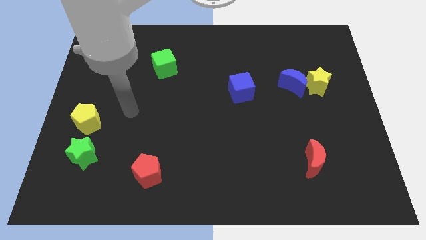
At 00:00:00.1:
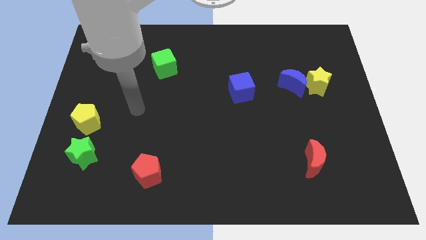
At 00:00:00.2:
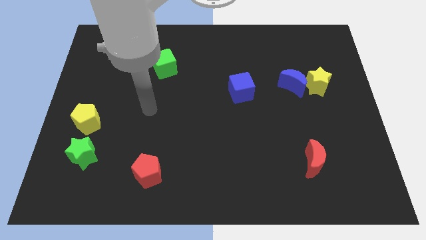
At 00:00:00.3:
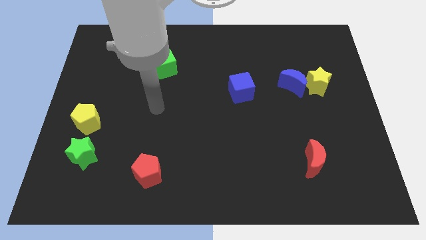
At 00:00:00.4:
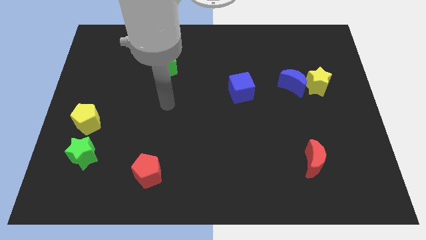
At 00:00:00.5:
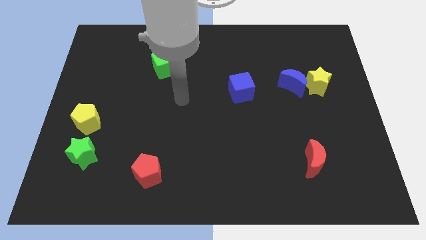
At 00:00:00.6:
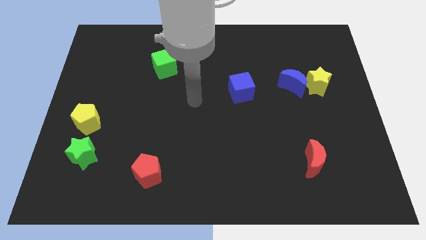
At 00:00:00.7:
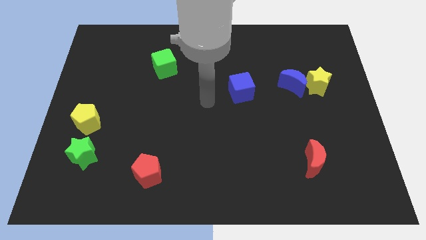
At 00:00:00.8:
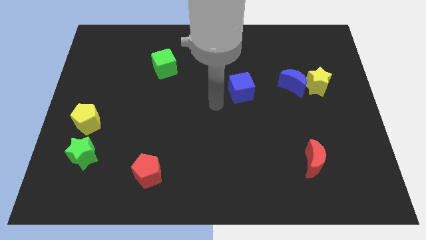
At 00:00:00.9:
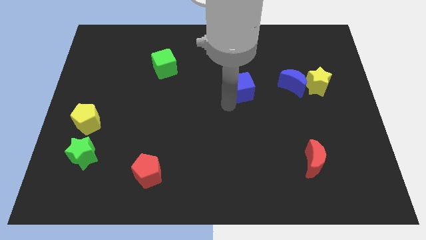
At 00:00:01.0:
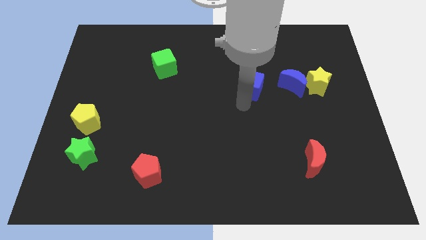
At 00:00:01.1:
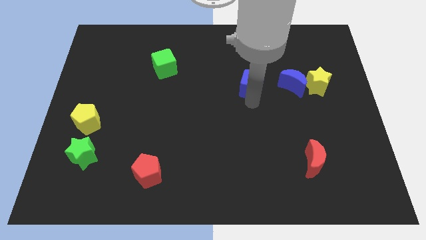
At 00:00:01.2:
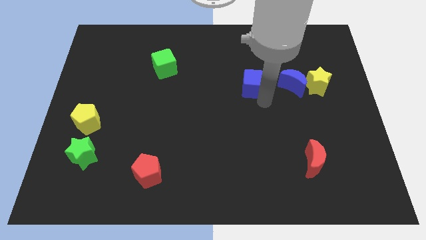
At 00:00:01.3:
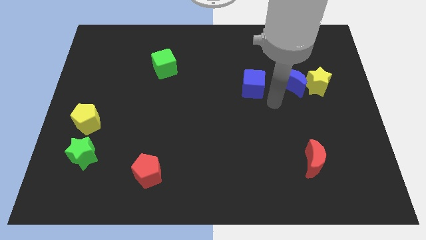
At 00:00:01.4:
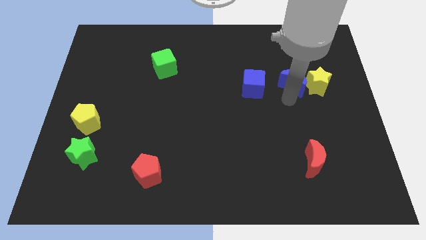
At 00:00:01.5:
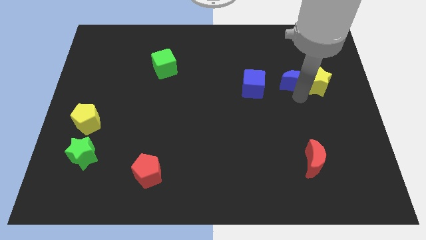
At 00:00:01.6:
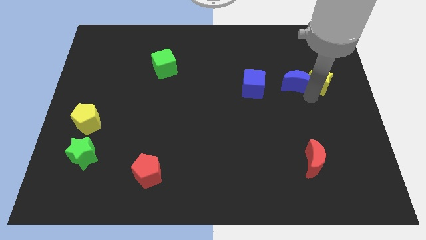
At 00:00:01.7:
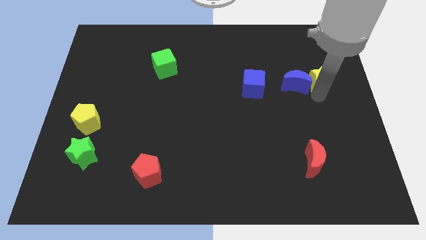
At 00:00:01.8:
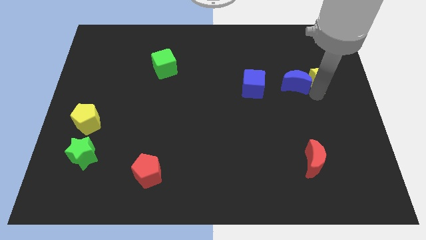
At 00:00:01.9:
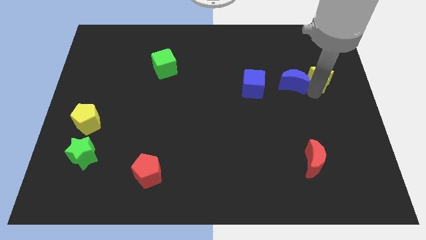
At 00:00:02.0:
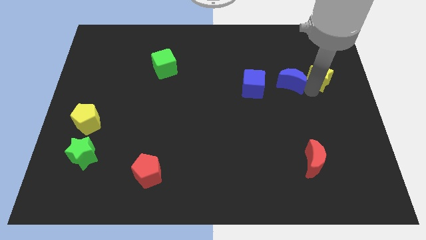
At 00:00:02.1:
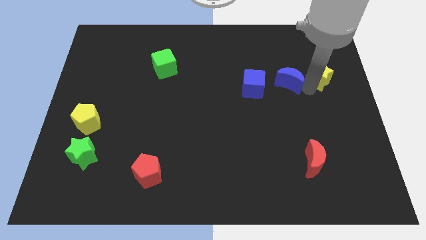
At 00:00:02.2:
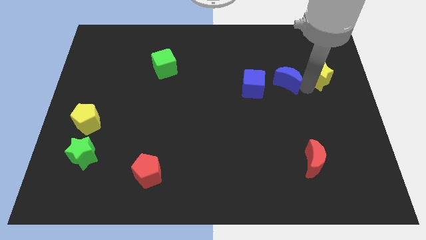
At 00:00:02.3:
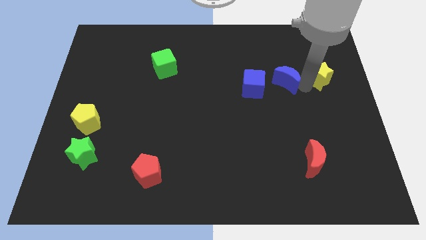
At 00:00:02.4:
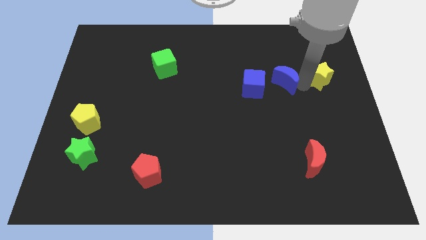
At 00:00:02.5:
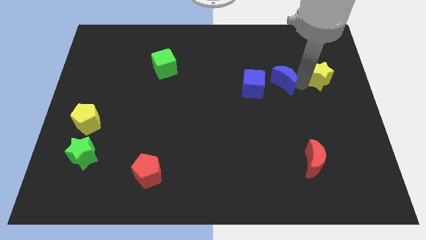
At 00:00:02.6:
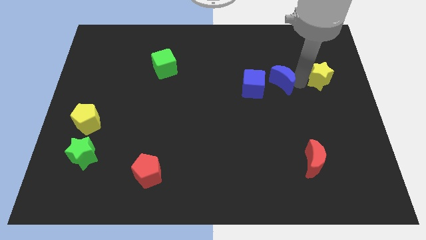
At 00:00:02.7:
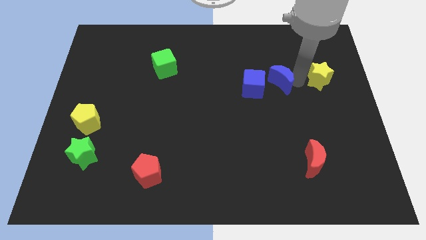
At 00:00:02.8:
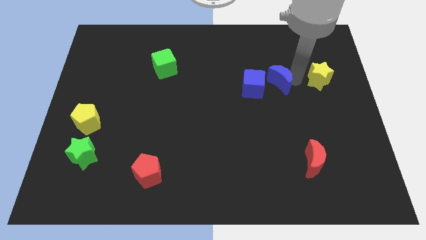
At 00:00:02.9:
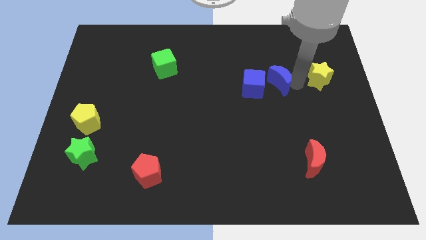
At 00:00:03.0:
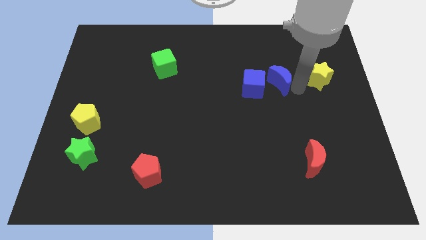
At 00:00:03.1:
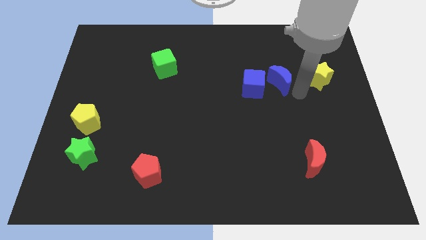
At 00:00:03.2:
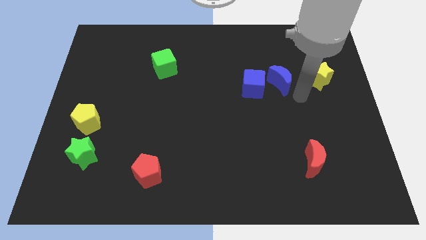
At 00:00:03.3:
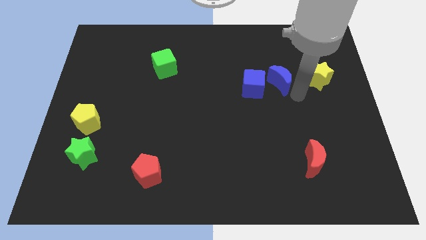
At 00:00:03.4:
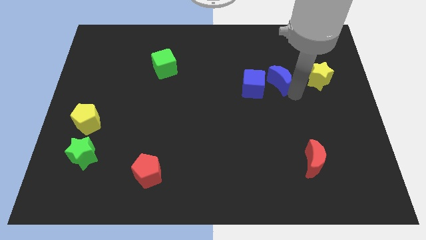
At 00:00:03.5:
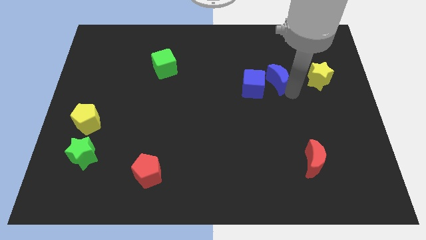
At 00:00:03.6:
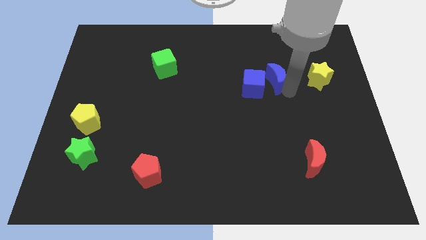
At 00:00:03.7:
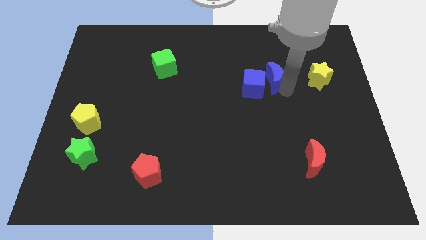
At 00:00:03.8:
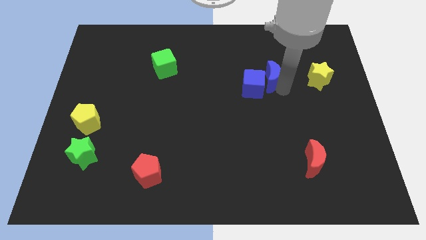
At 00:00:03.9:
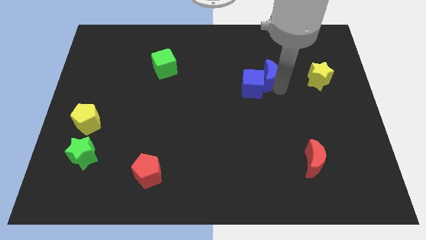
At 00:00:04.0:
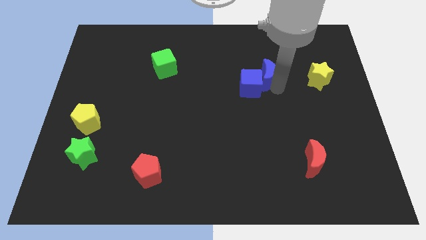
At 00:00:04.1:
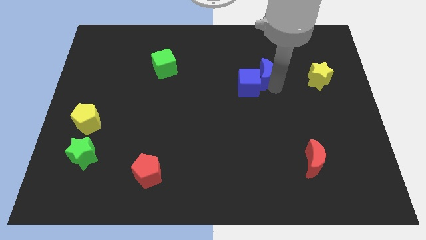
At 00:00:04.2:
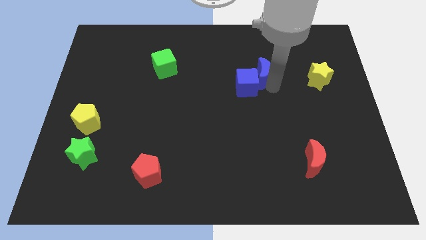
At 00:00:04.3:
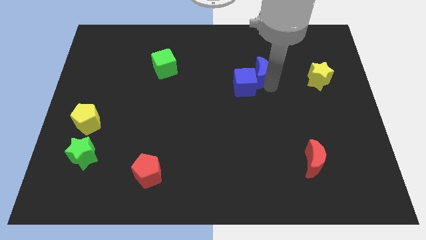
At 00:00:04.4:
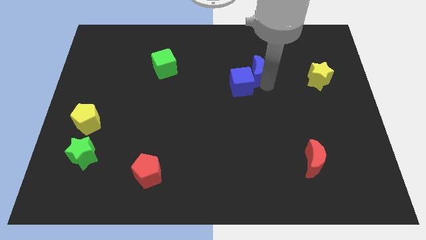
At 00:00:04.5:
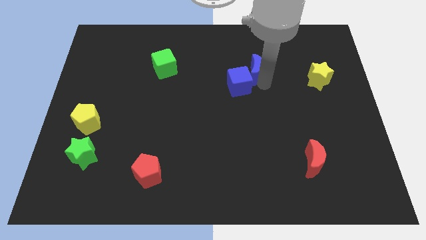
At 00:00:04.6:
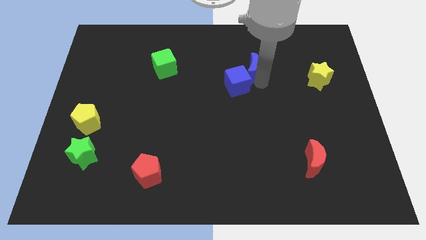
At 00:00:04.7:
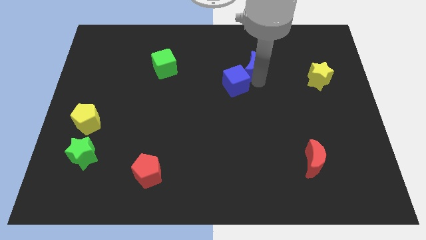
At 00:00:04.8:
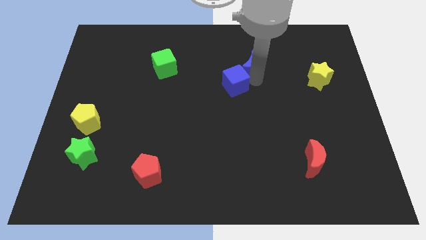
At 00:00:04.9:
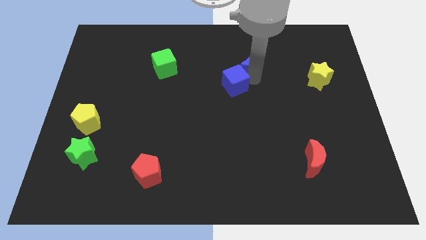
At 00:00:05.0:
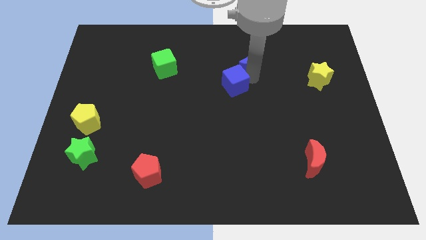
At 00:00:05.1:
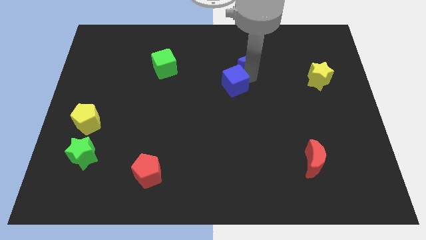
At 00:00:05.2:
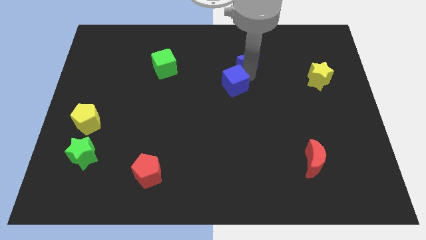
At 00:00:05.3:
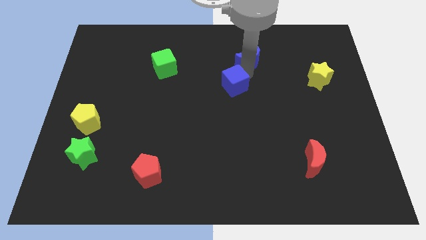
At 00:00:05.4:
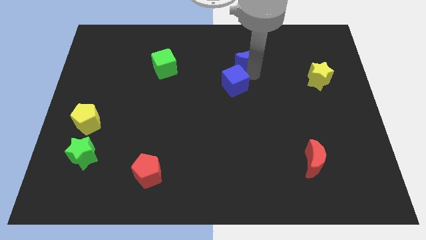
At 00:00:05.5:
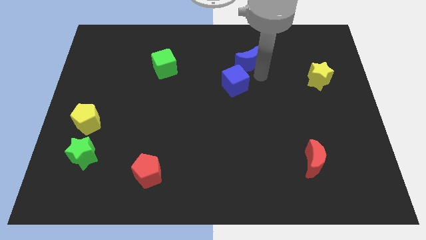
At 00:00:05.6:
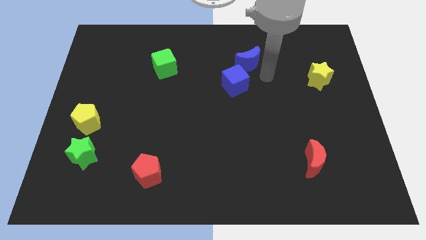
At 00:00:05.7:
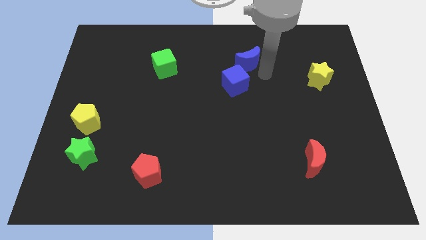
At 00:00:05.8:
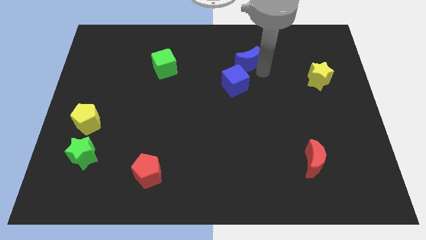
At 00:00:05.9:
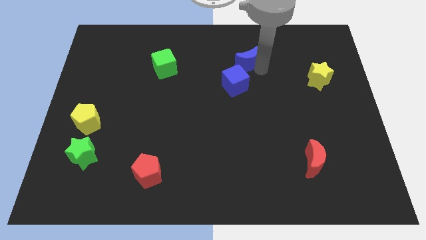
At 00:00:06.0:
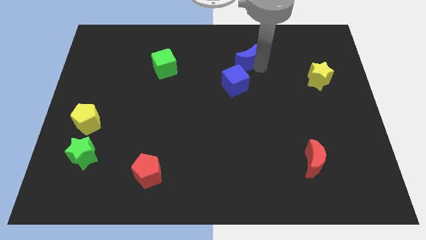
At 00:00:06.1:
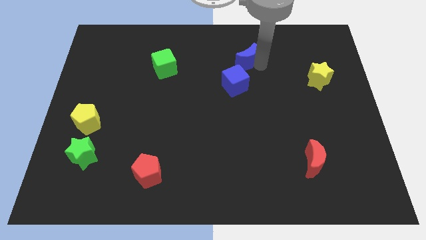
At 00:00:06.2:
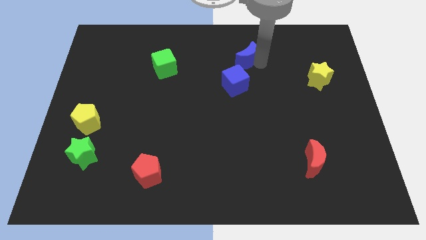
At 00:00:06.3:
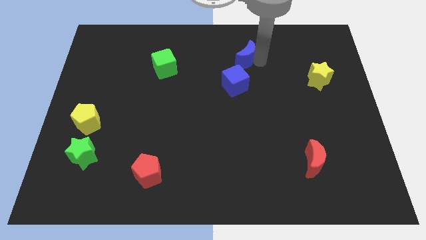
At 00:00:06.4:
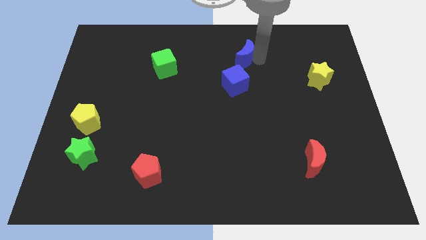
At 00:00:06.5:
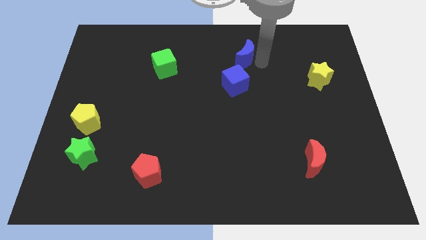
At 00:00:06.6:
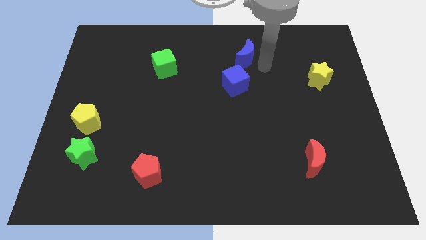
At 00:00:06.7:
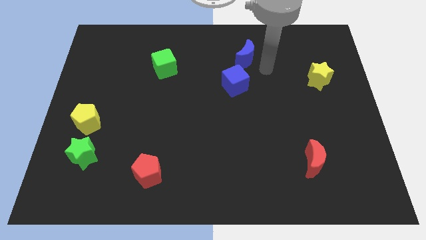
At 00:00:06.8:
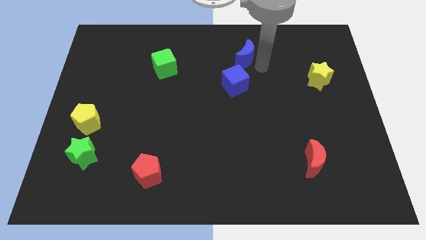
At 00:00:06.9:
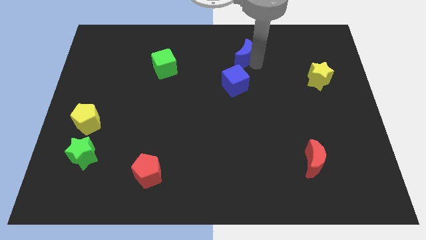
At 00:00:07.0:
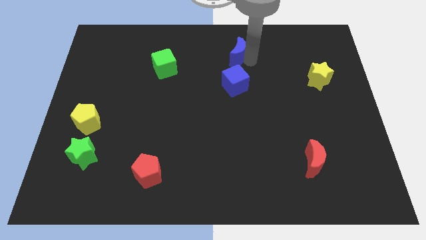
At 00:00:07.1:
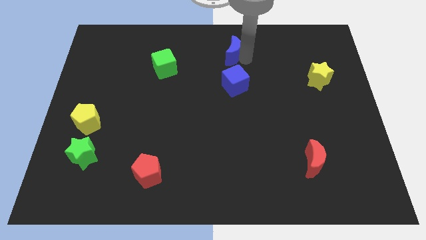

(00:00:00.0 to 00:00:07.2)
move the blue moon to the top side
